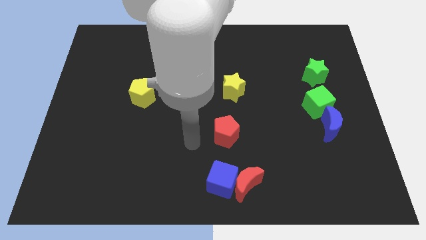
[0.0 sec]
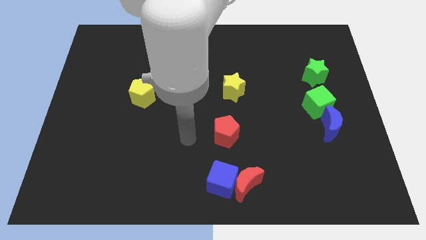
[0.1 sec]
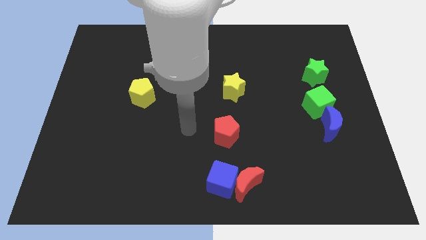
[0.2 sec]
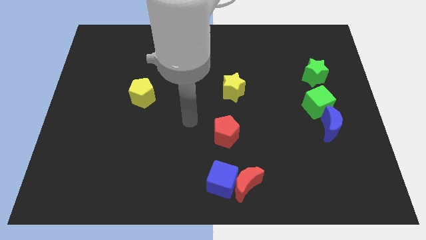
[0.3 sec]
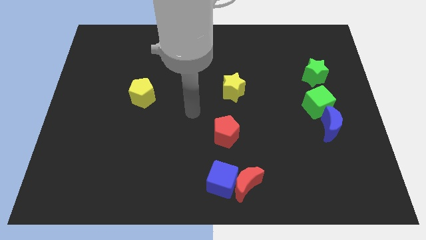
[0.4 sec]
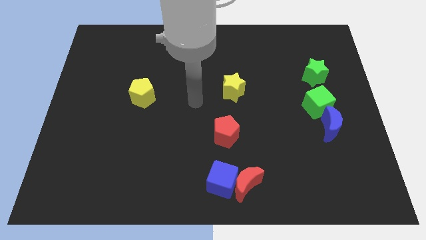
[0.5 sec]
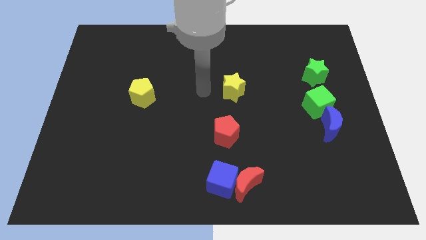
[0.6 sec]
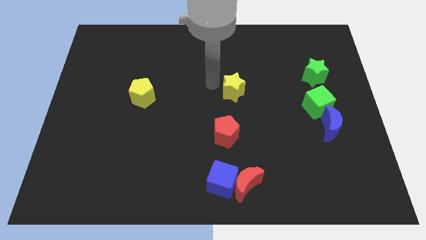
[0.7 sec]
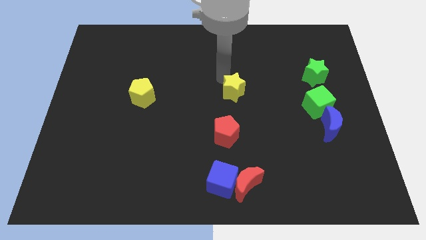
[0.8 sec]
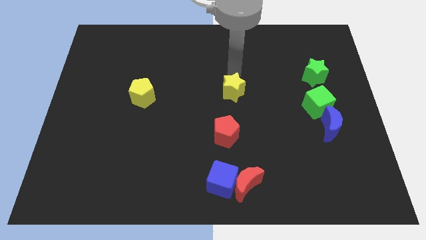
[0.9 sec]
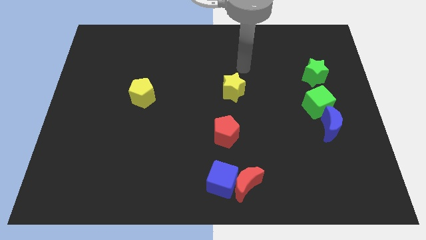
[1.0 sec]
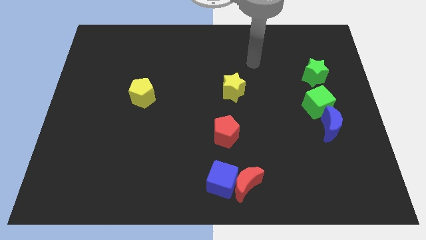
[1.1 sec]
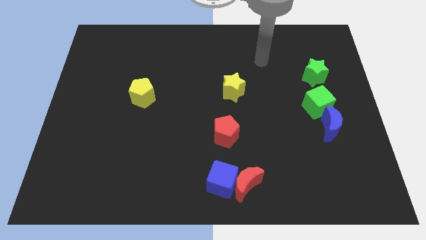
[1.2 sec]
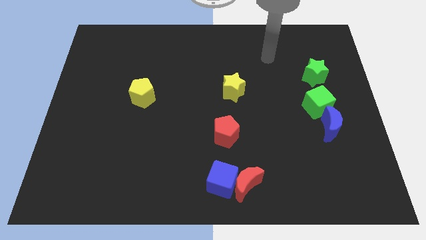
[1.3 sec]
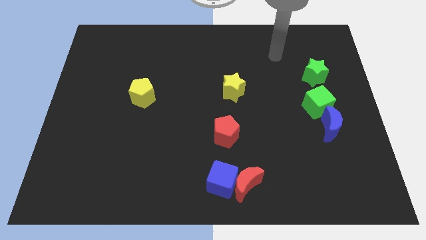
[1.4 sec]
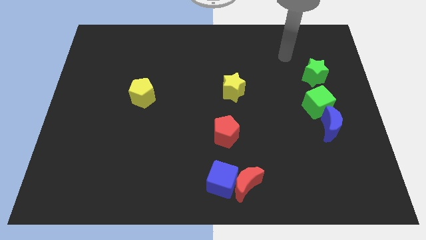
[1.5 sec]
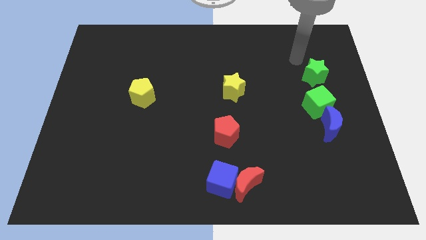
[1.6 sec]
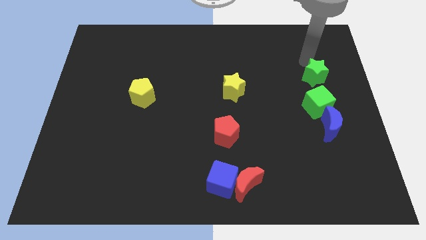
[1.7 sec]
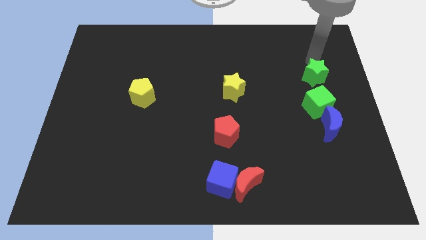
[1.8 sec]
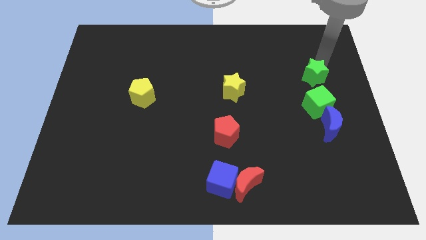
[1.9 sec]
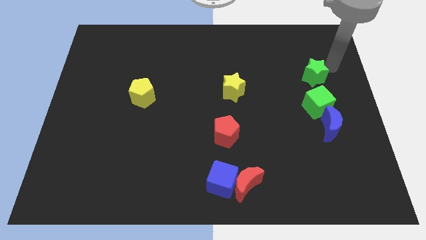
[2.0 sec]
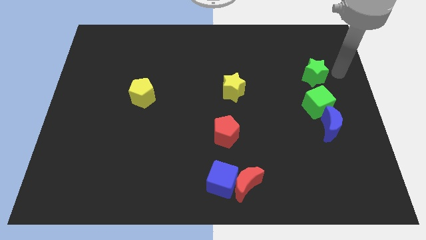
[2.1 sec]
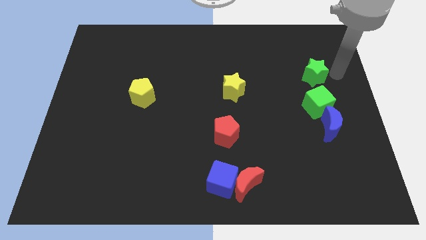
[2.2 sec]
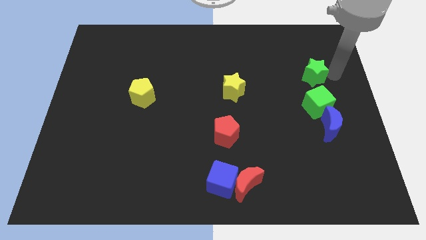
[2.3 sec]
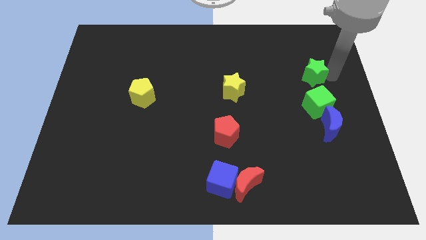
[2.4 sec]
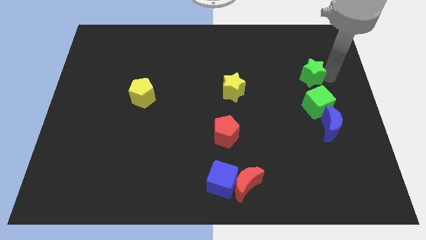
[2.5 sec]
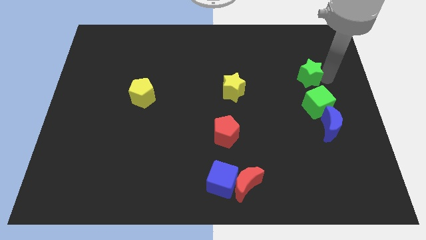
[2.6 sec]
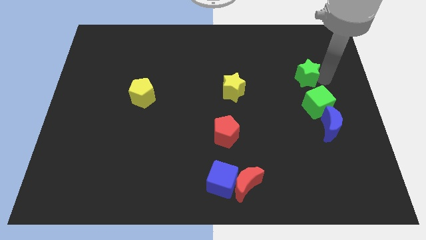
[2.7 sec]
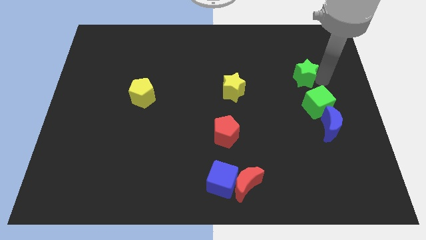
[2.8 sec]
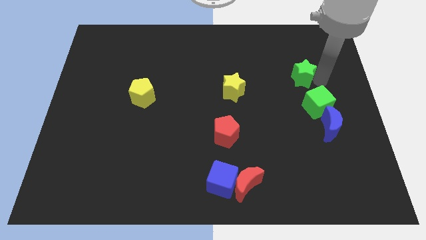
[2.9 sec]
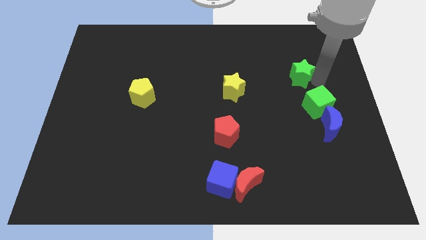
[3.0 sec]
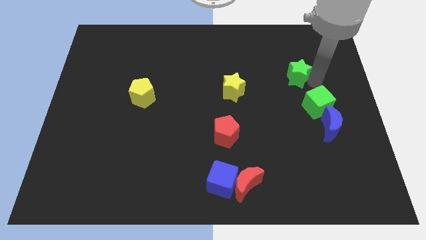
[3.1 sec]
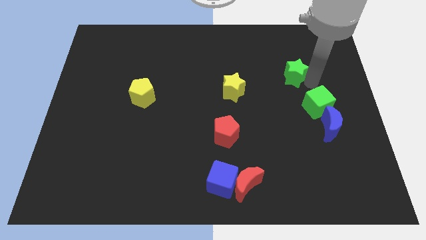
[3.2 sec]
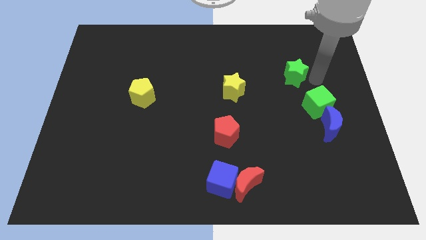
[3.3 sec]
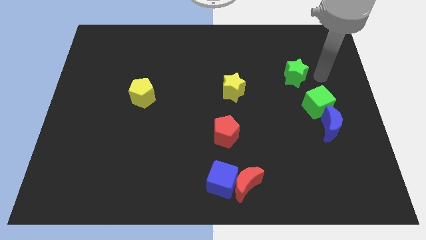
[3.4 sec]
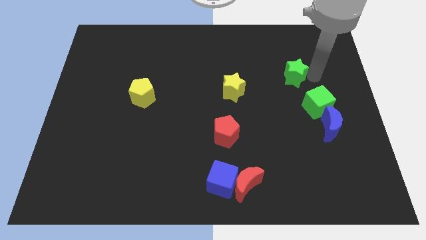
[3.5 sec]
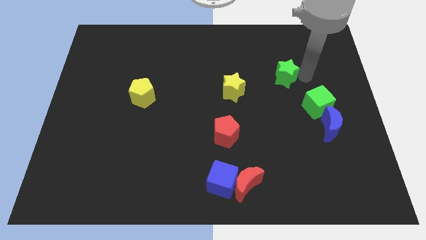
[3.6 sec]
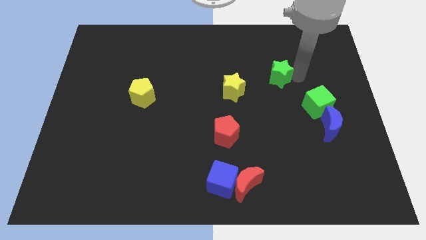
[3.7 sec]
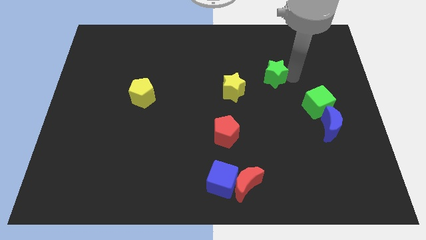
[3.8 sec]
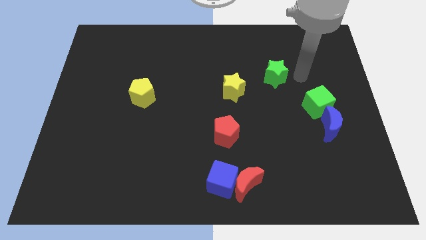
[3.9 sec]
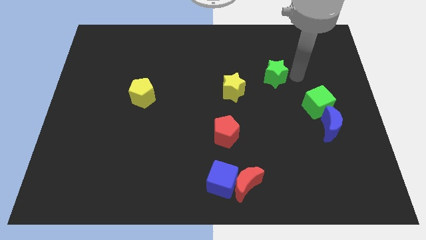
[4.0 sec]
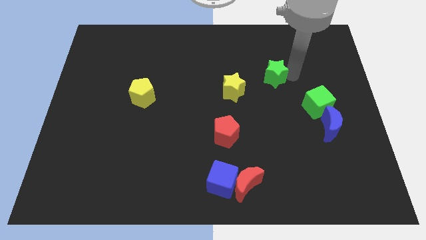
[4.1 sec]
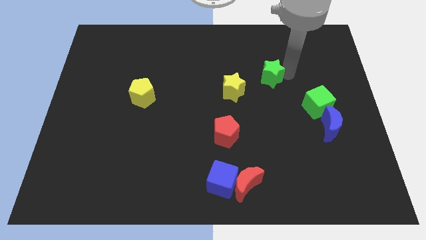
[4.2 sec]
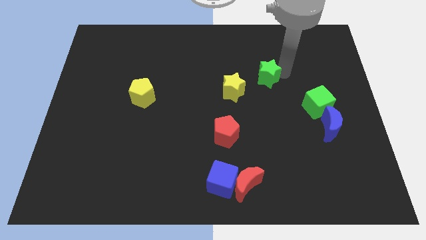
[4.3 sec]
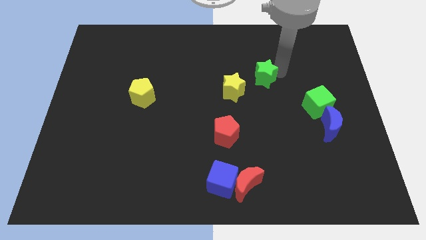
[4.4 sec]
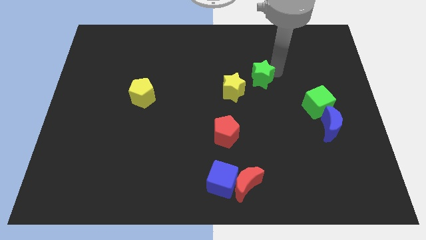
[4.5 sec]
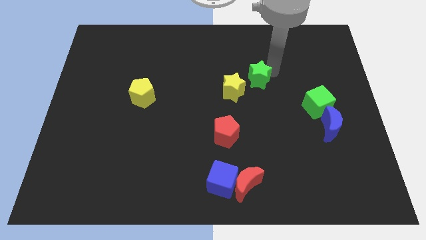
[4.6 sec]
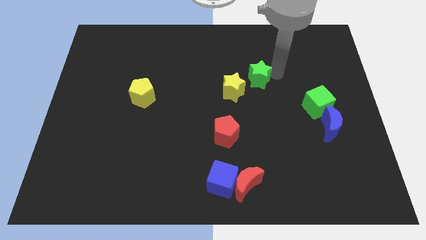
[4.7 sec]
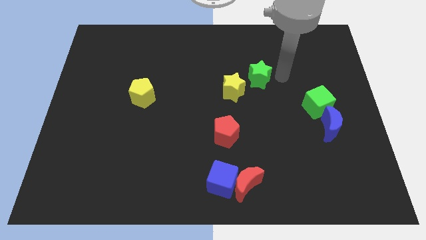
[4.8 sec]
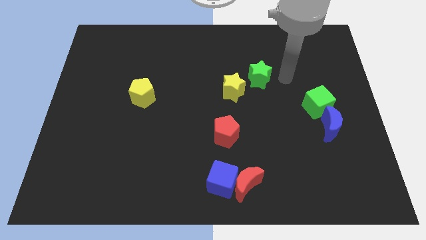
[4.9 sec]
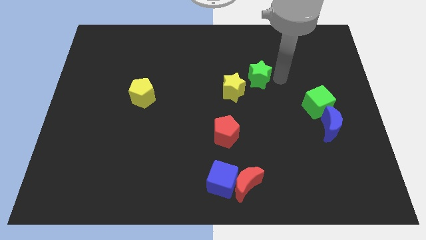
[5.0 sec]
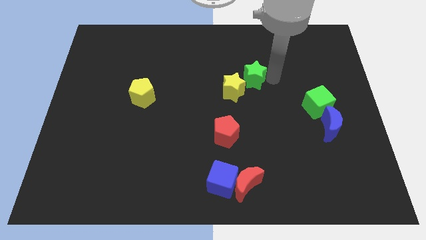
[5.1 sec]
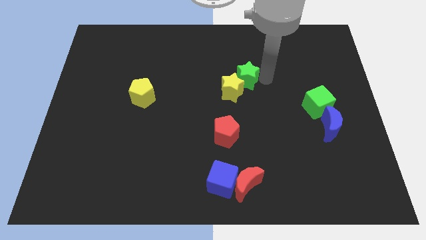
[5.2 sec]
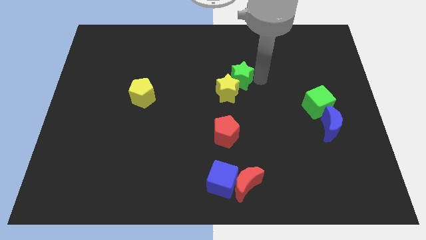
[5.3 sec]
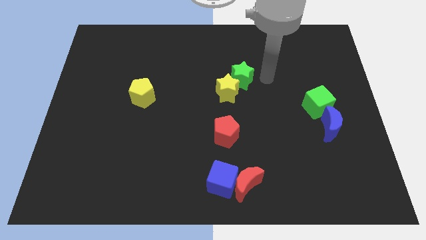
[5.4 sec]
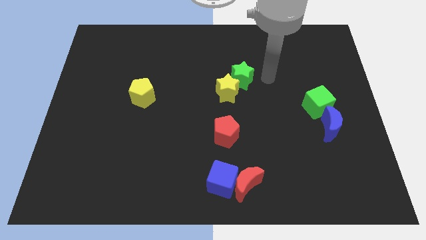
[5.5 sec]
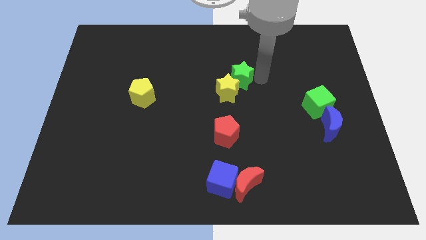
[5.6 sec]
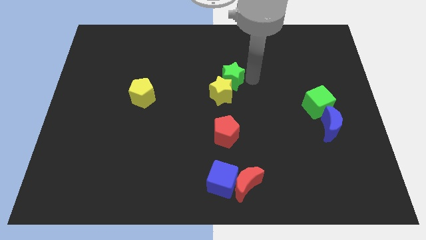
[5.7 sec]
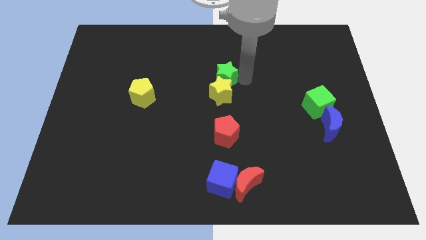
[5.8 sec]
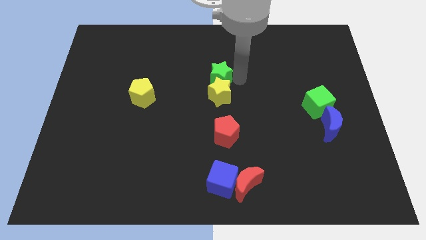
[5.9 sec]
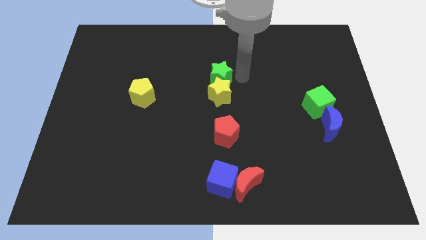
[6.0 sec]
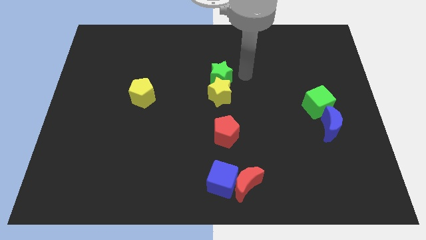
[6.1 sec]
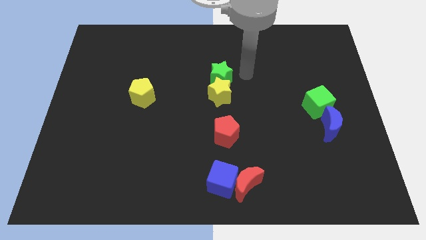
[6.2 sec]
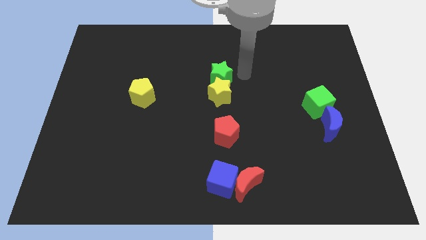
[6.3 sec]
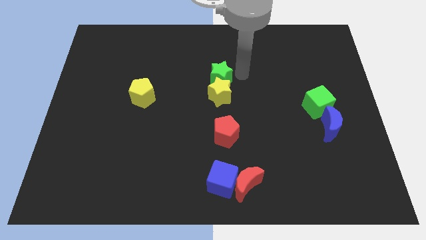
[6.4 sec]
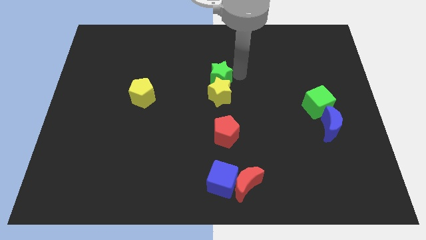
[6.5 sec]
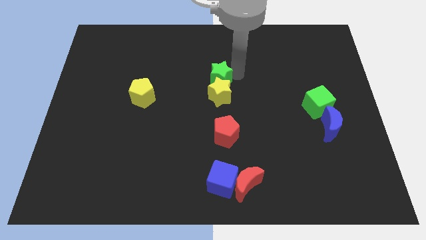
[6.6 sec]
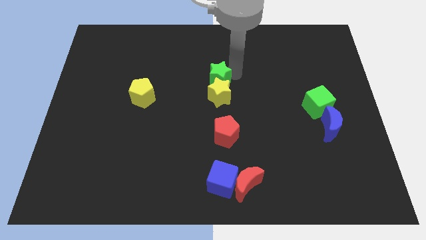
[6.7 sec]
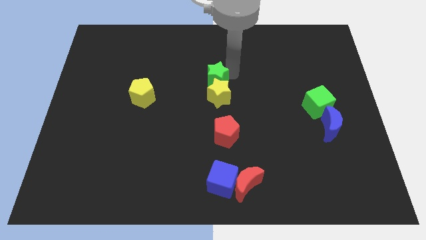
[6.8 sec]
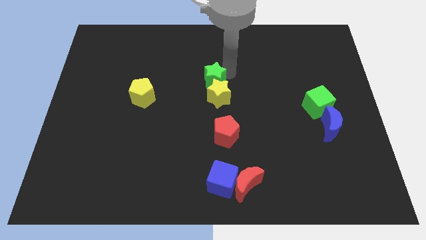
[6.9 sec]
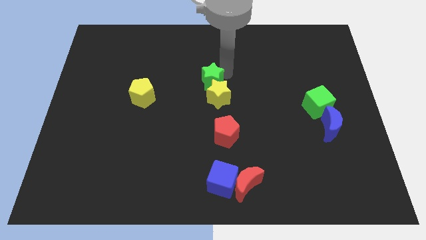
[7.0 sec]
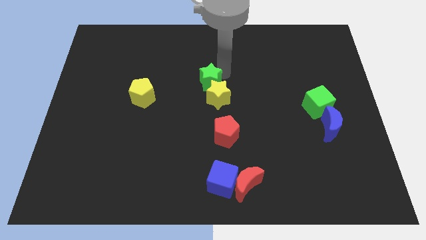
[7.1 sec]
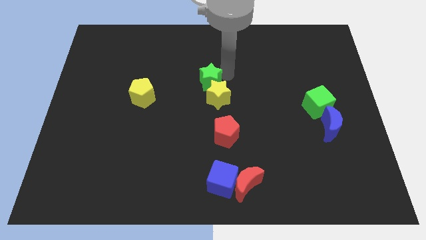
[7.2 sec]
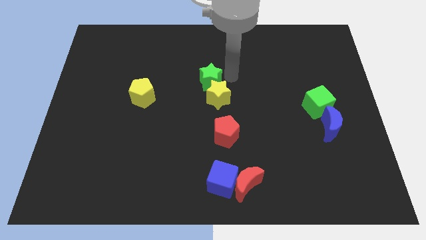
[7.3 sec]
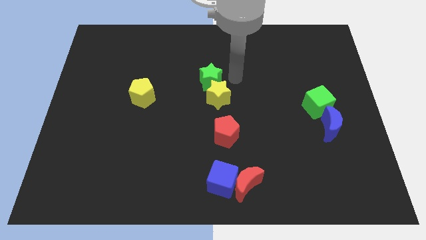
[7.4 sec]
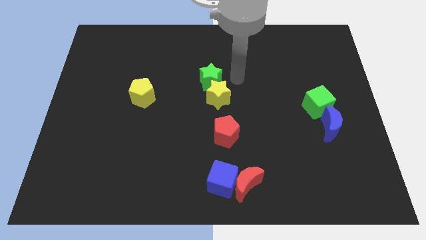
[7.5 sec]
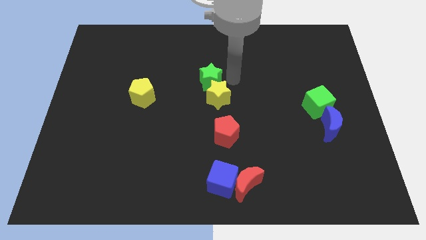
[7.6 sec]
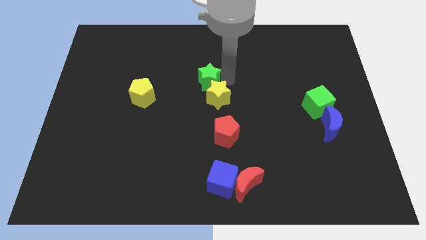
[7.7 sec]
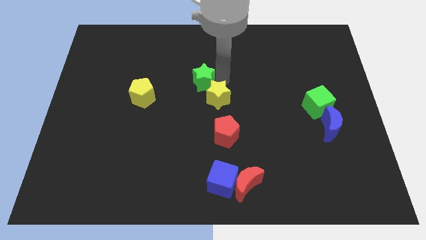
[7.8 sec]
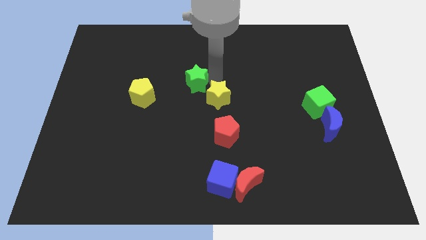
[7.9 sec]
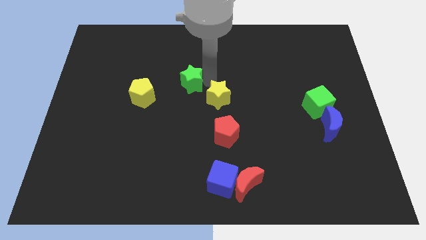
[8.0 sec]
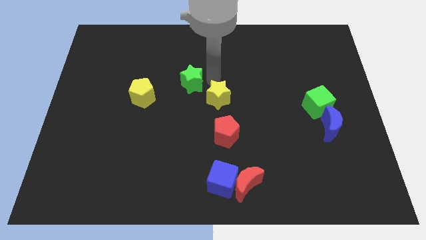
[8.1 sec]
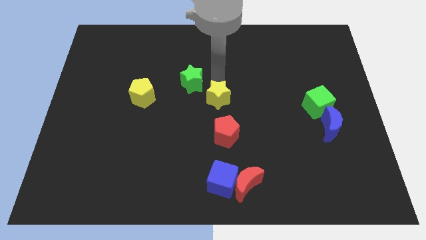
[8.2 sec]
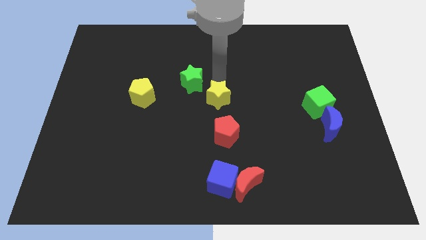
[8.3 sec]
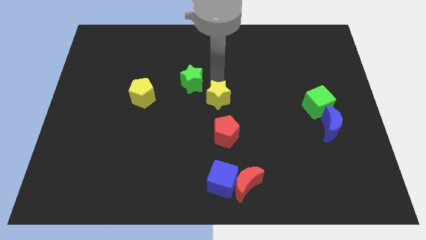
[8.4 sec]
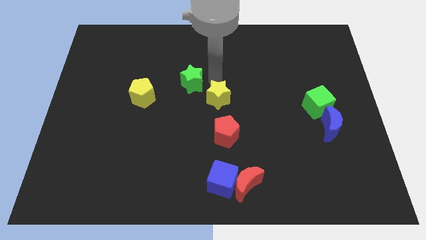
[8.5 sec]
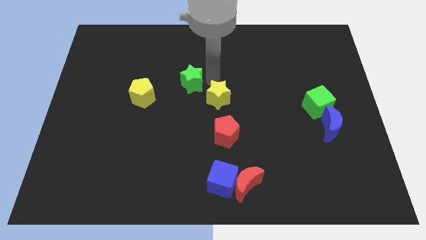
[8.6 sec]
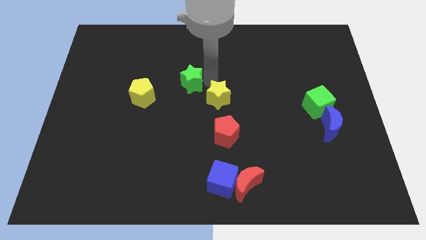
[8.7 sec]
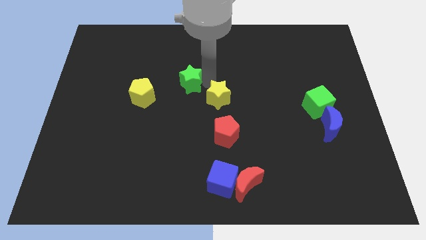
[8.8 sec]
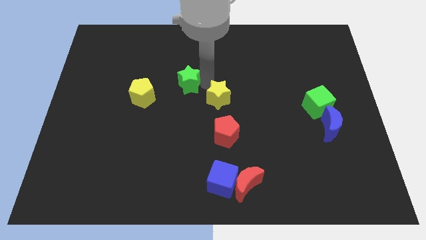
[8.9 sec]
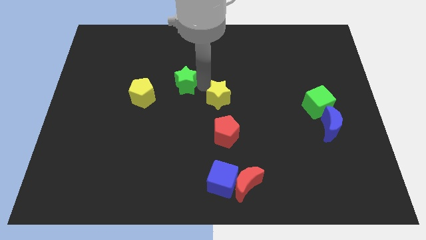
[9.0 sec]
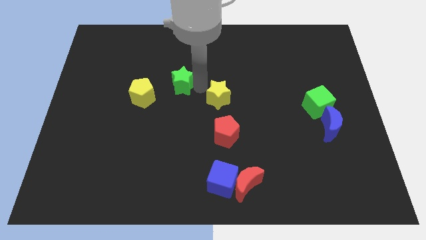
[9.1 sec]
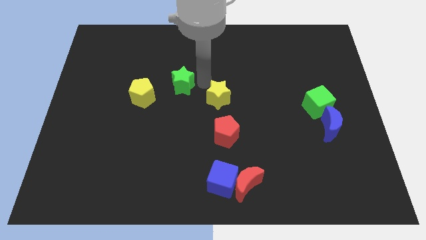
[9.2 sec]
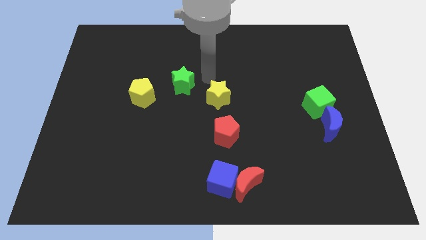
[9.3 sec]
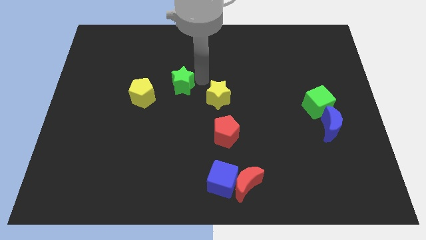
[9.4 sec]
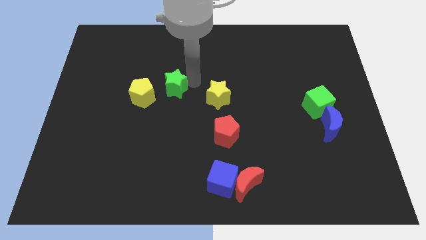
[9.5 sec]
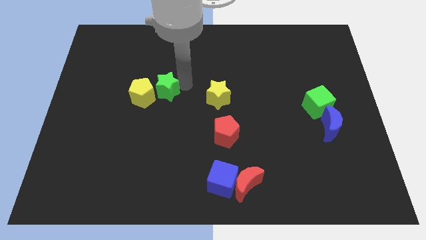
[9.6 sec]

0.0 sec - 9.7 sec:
push the green star close to the yellow pentagon
